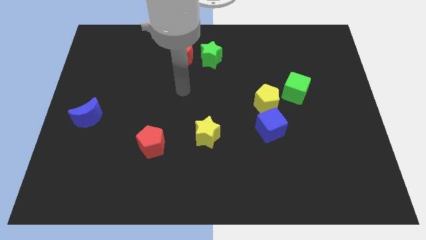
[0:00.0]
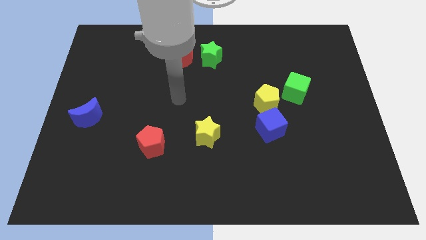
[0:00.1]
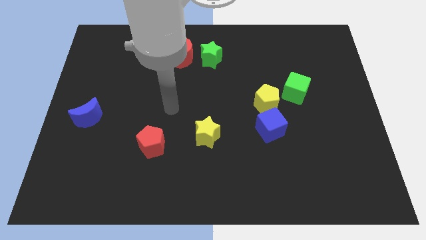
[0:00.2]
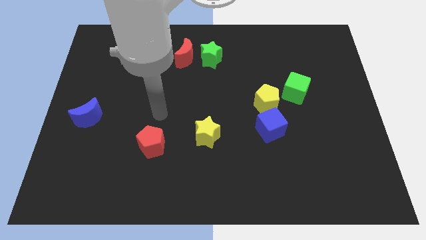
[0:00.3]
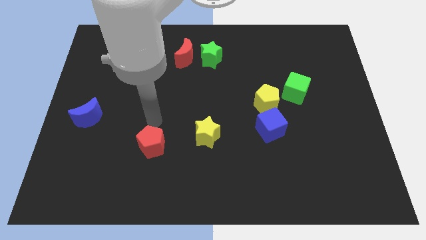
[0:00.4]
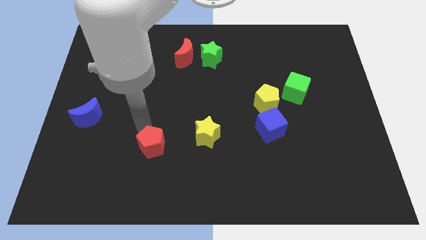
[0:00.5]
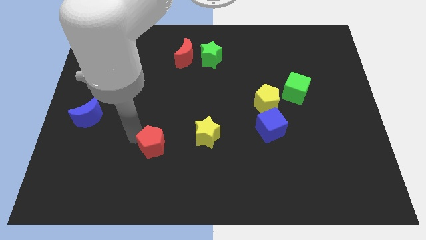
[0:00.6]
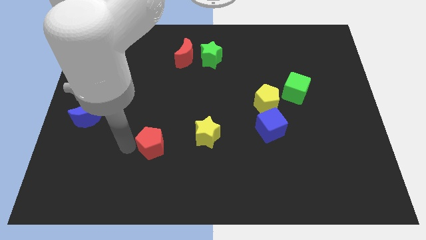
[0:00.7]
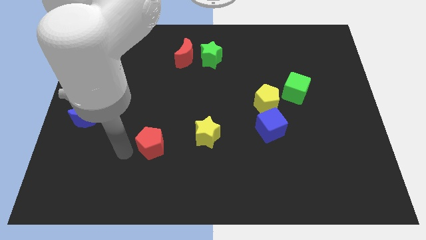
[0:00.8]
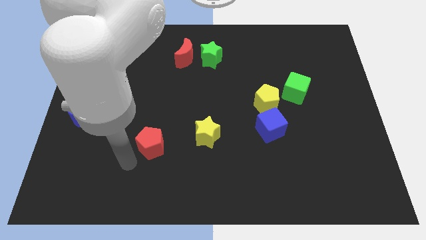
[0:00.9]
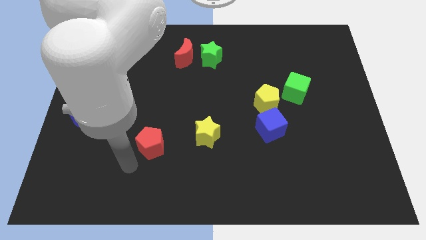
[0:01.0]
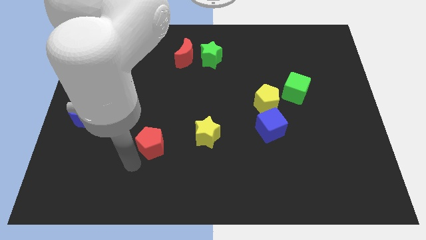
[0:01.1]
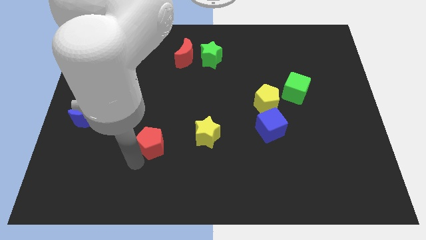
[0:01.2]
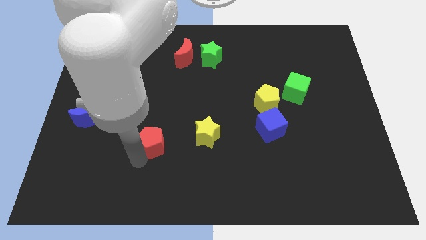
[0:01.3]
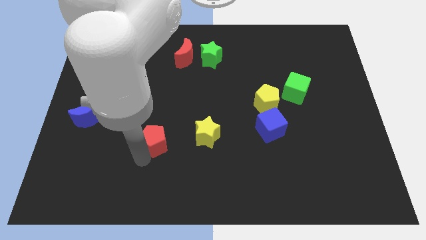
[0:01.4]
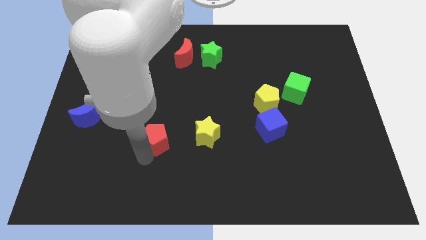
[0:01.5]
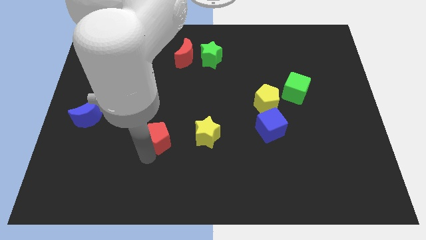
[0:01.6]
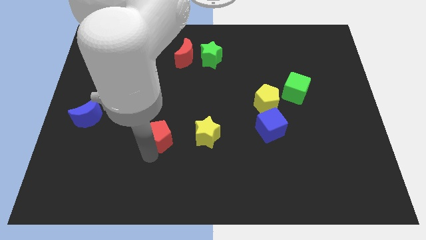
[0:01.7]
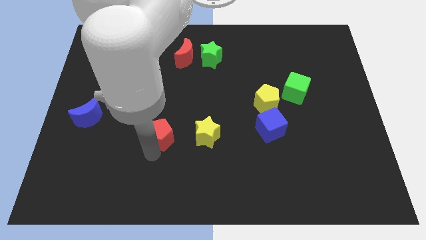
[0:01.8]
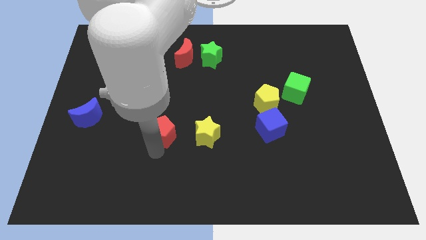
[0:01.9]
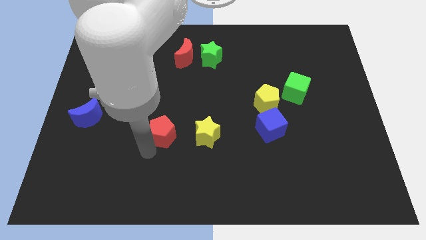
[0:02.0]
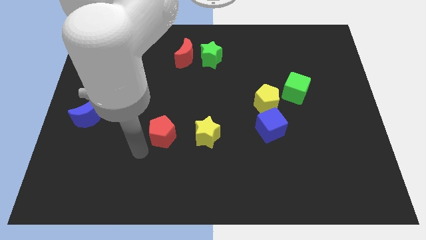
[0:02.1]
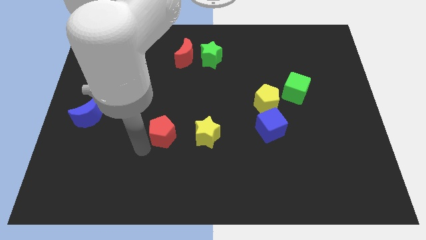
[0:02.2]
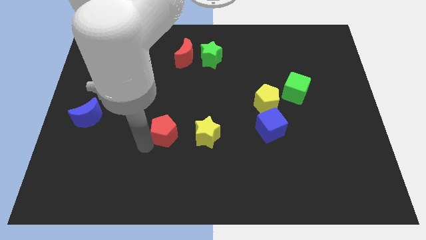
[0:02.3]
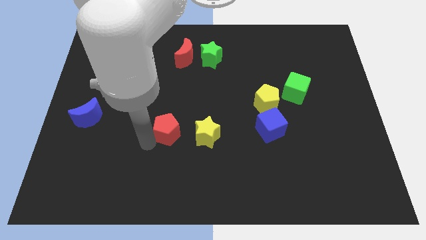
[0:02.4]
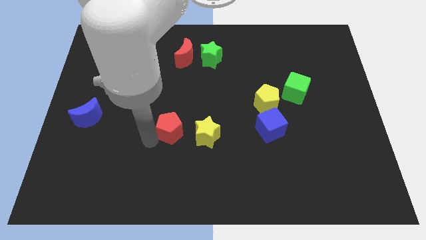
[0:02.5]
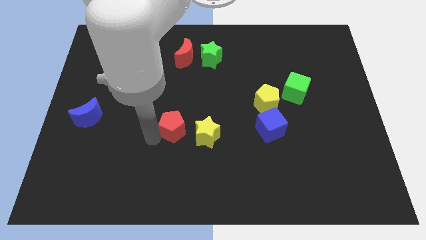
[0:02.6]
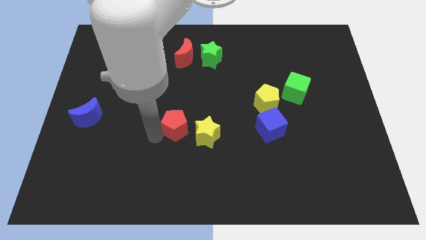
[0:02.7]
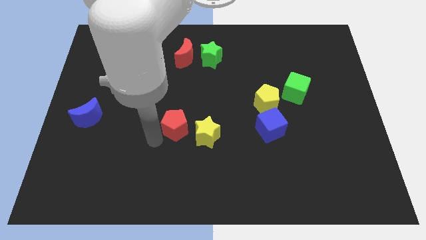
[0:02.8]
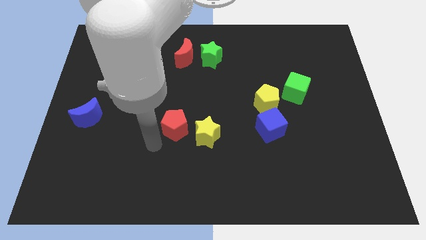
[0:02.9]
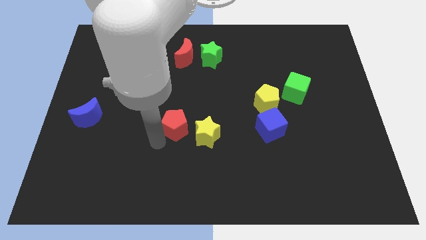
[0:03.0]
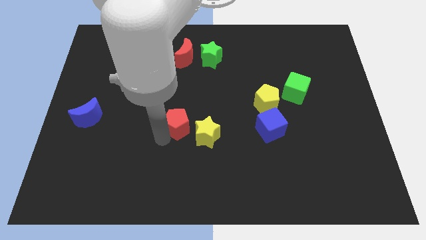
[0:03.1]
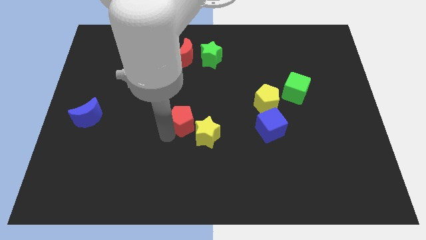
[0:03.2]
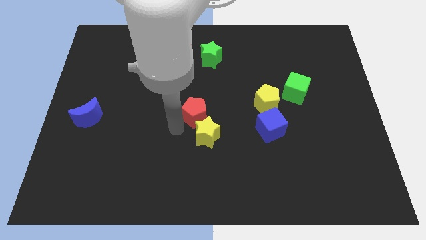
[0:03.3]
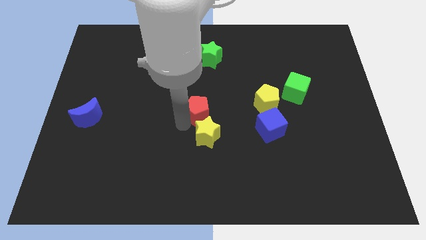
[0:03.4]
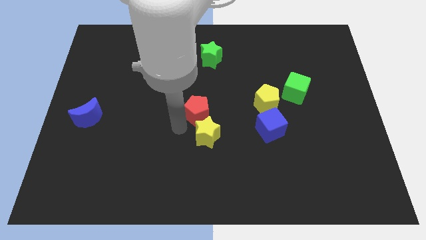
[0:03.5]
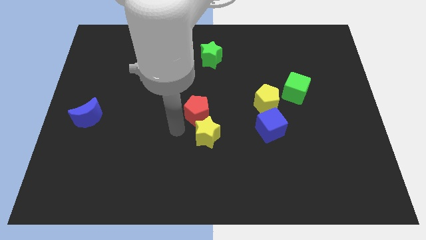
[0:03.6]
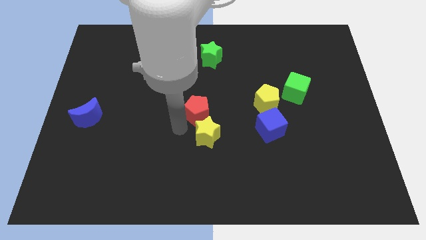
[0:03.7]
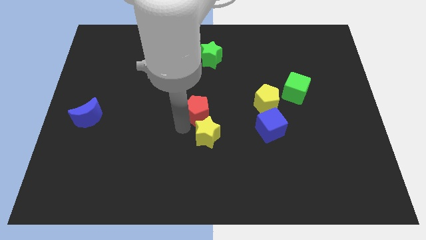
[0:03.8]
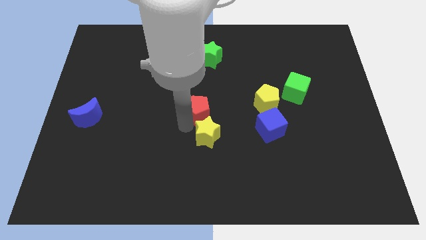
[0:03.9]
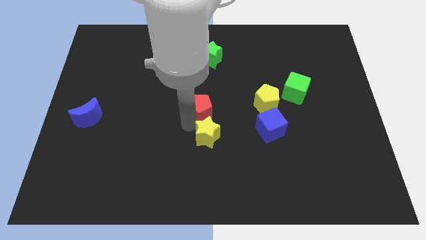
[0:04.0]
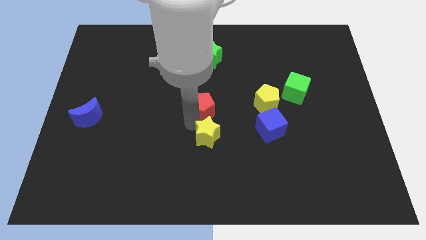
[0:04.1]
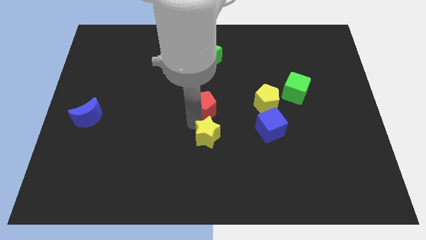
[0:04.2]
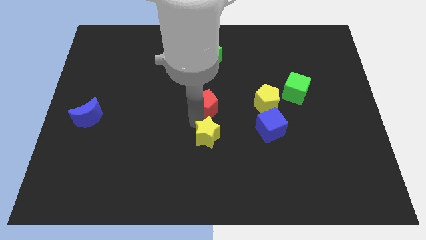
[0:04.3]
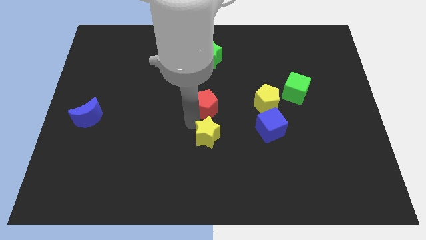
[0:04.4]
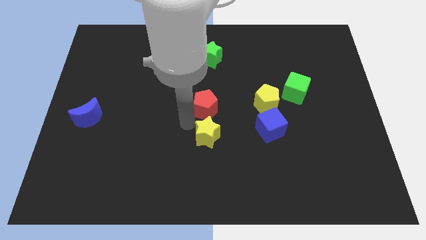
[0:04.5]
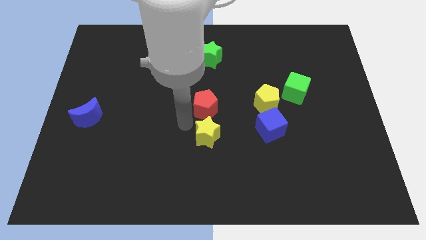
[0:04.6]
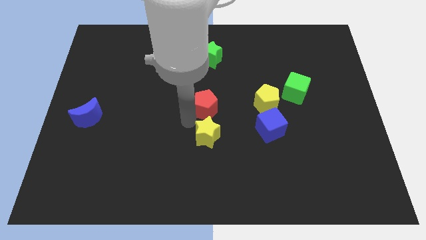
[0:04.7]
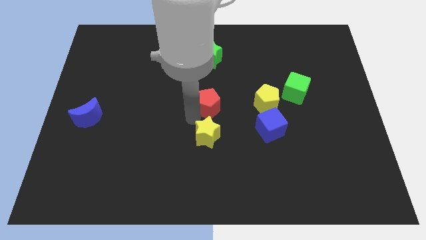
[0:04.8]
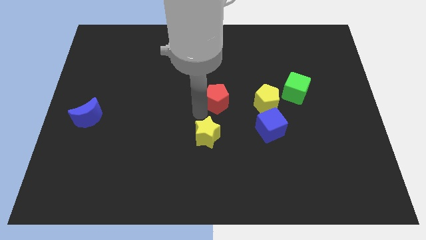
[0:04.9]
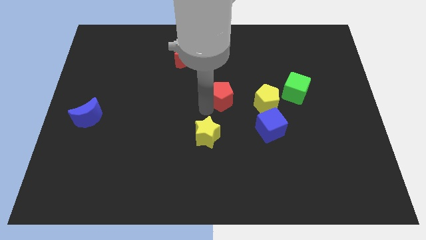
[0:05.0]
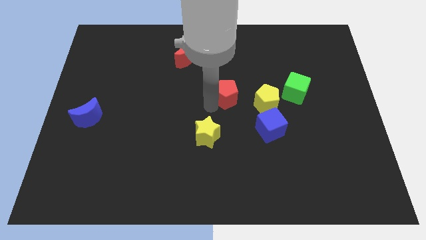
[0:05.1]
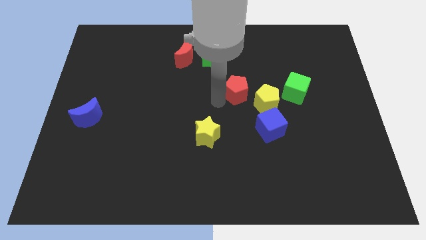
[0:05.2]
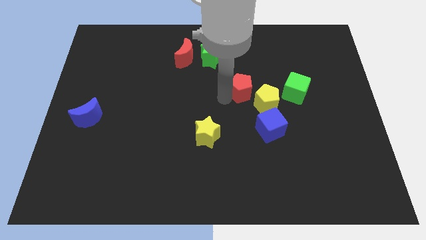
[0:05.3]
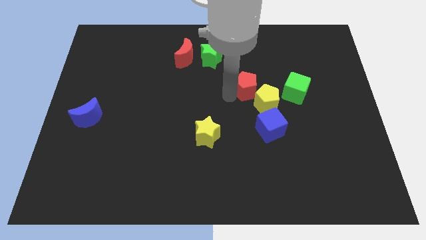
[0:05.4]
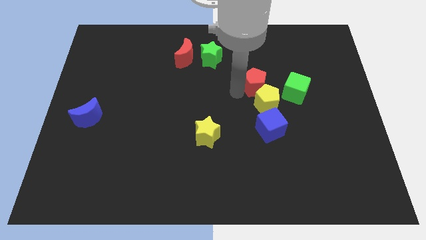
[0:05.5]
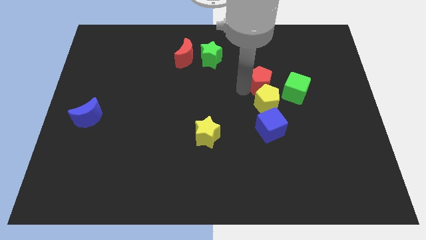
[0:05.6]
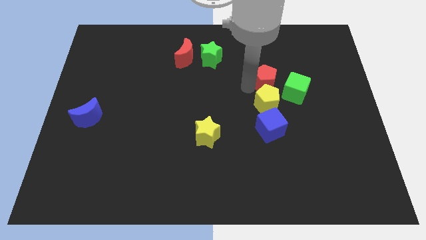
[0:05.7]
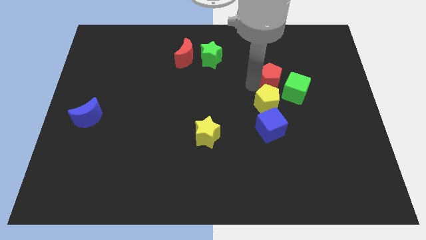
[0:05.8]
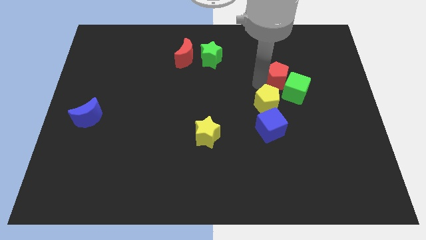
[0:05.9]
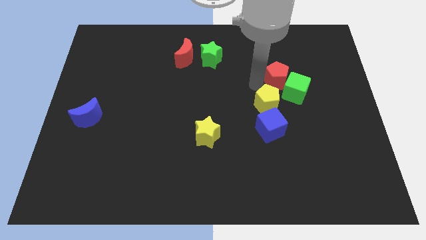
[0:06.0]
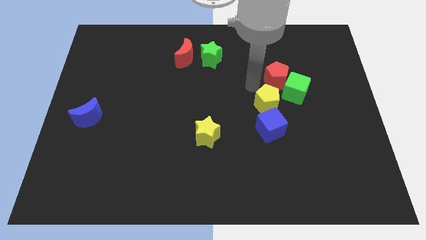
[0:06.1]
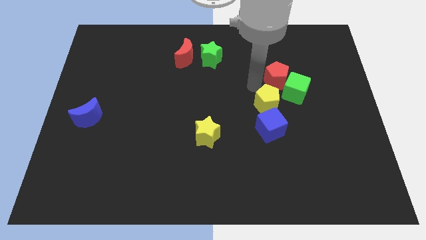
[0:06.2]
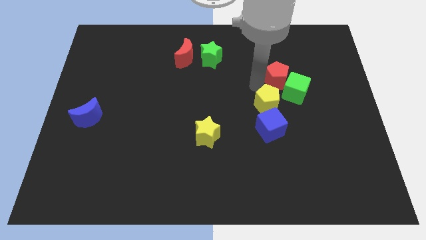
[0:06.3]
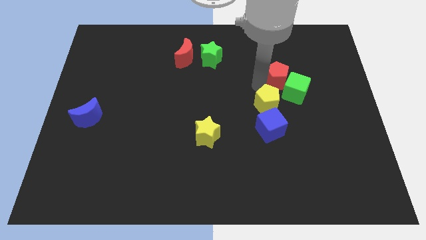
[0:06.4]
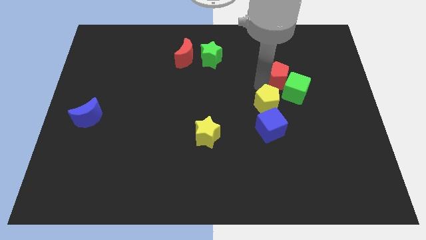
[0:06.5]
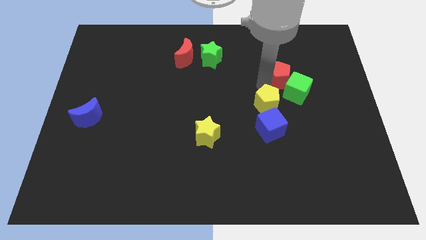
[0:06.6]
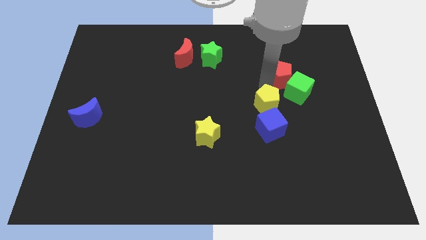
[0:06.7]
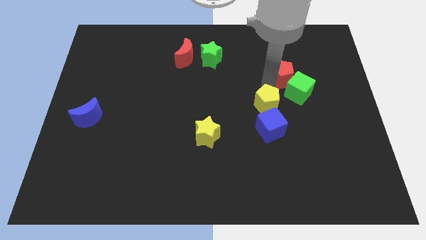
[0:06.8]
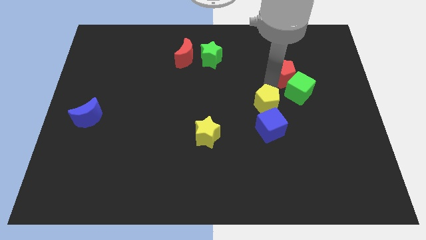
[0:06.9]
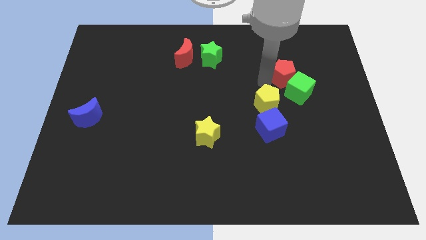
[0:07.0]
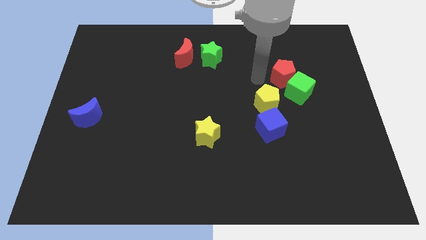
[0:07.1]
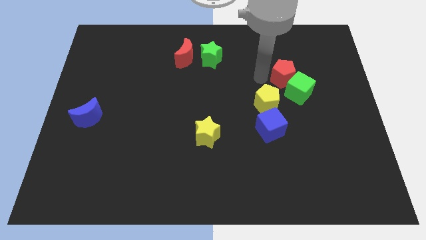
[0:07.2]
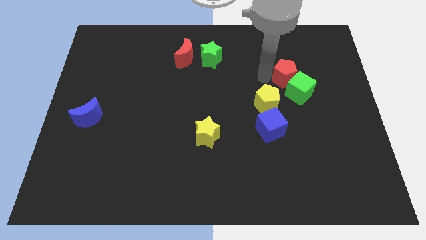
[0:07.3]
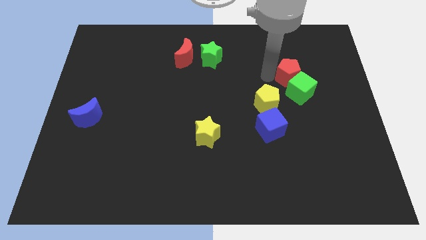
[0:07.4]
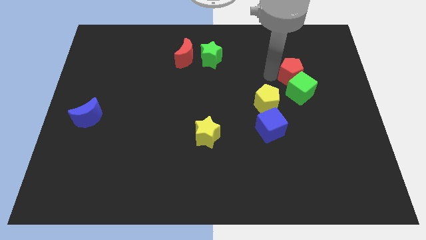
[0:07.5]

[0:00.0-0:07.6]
put the red pentagon to the top right of the green cube
